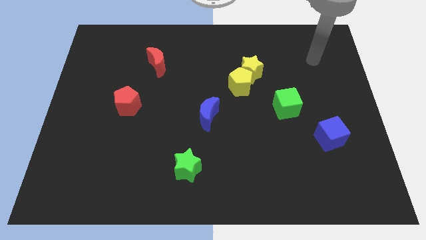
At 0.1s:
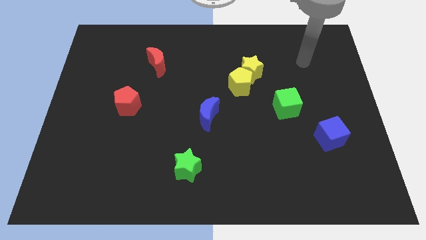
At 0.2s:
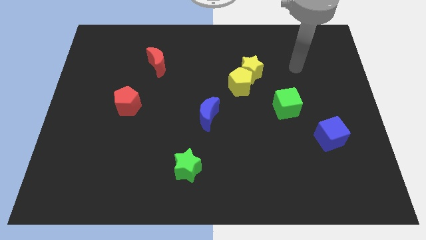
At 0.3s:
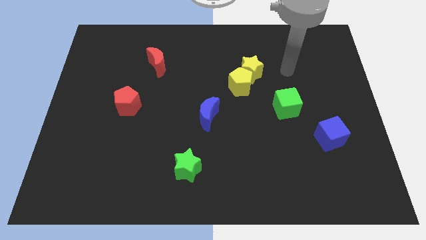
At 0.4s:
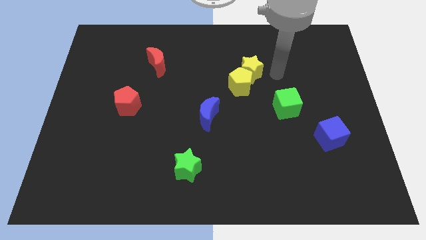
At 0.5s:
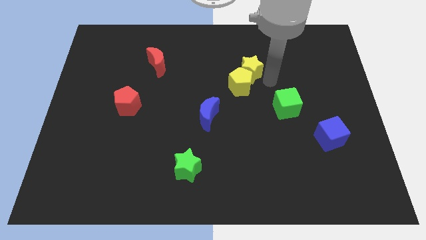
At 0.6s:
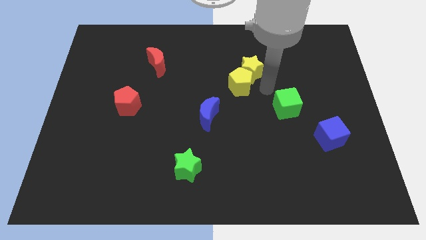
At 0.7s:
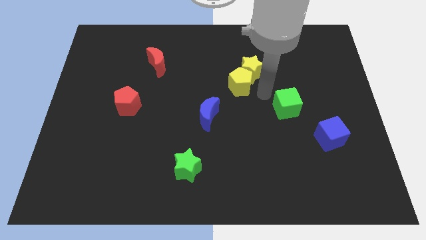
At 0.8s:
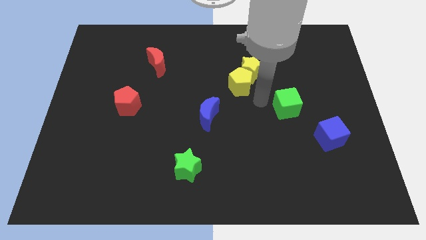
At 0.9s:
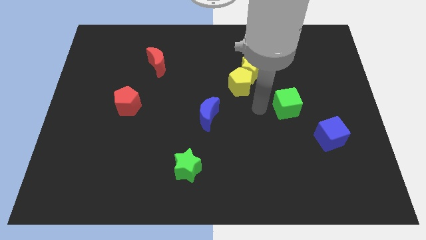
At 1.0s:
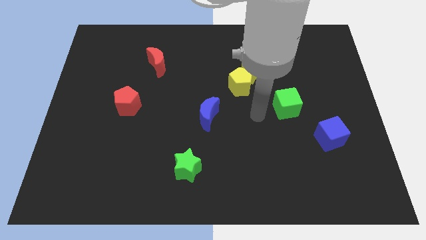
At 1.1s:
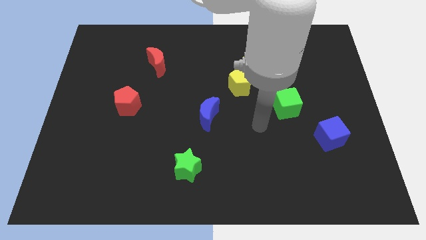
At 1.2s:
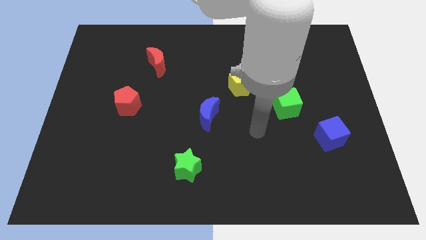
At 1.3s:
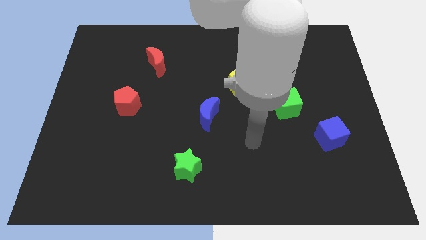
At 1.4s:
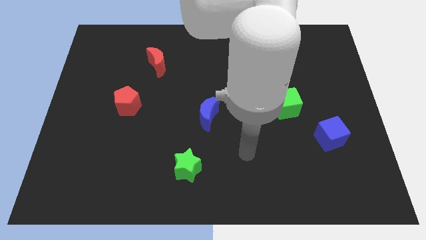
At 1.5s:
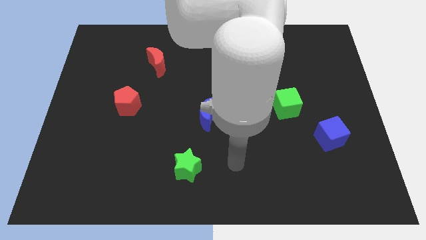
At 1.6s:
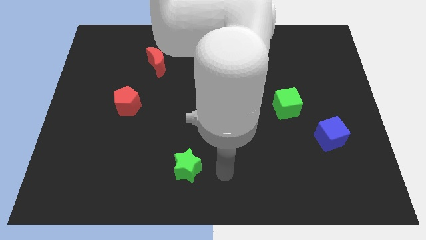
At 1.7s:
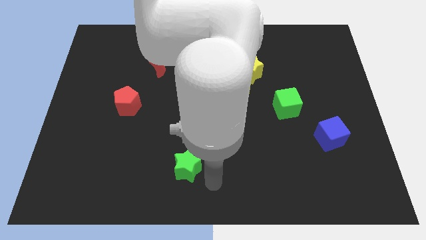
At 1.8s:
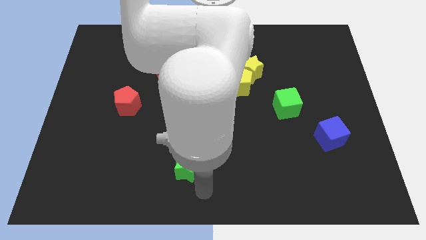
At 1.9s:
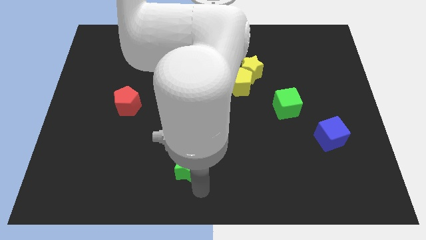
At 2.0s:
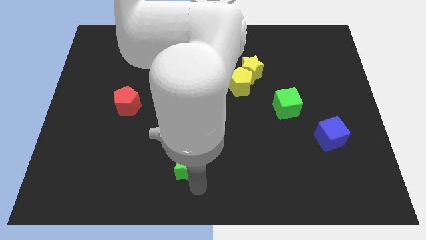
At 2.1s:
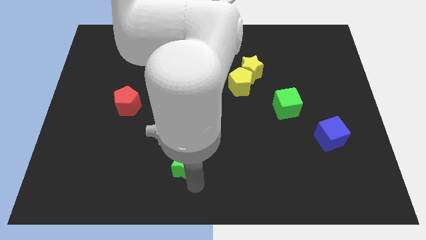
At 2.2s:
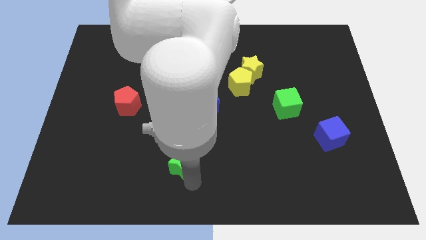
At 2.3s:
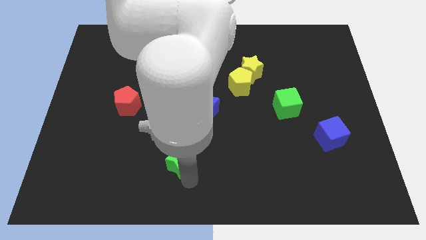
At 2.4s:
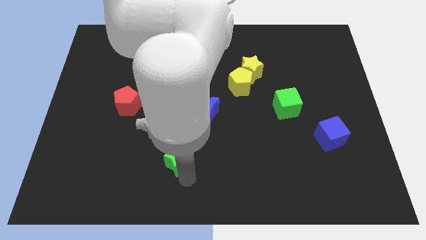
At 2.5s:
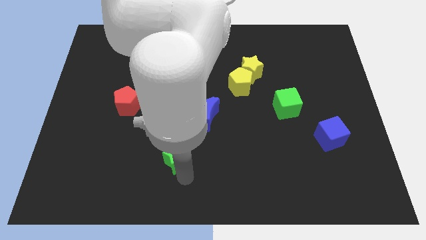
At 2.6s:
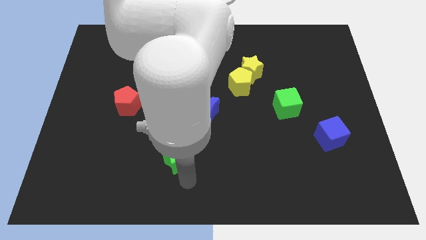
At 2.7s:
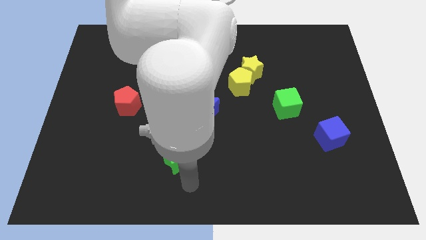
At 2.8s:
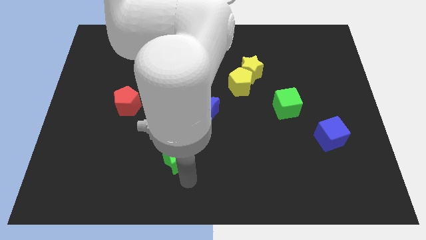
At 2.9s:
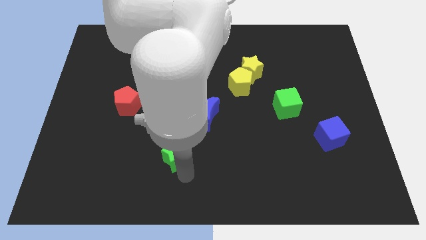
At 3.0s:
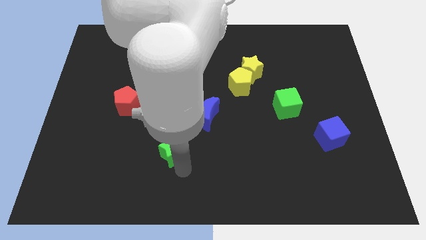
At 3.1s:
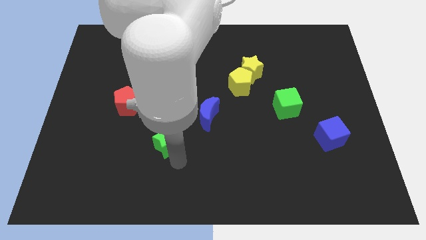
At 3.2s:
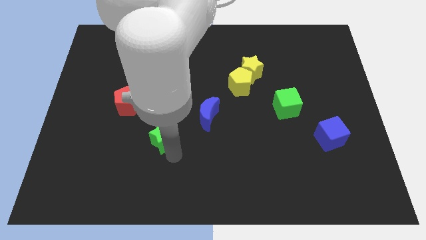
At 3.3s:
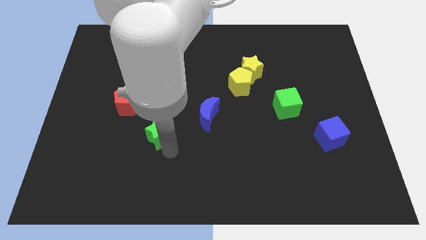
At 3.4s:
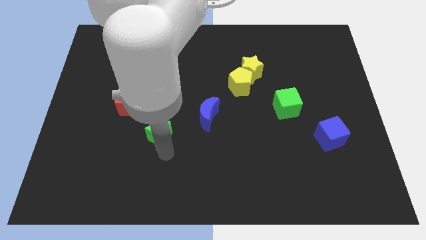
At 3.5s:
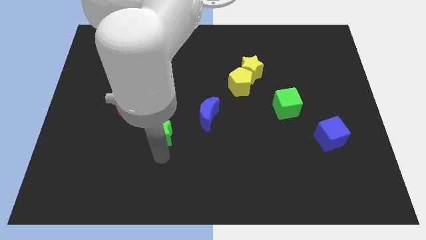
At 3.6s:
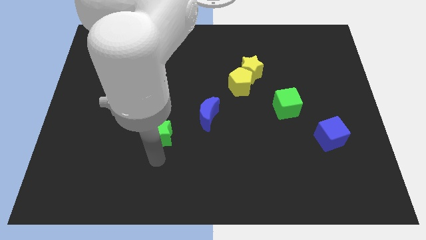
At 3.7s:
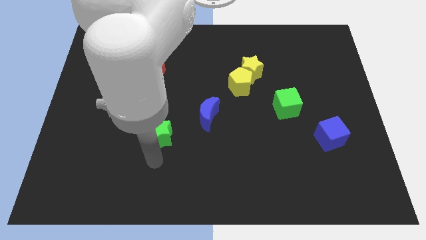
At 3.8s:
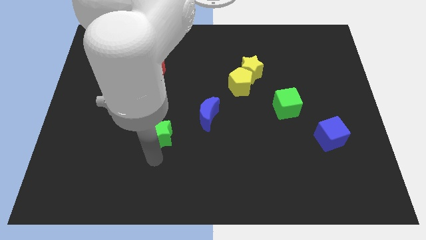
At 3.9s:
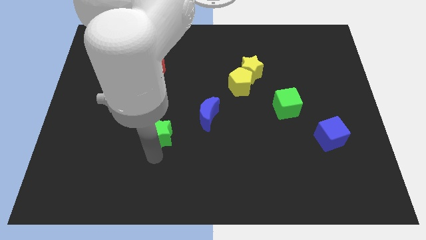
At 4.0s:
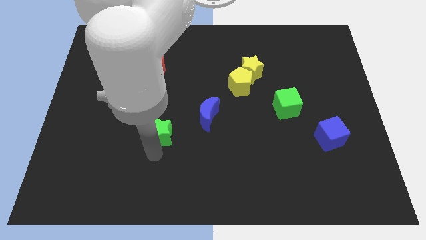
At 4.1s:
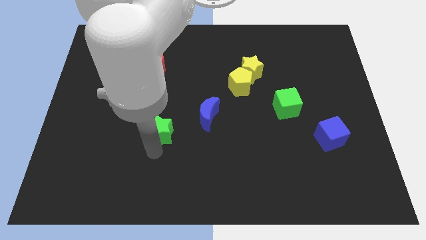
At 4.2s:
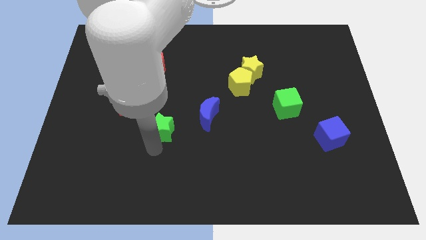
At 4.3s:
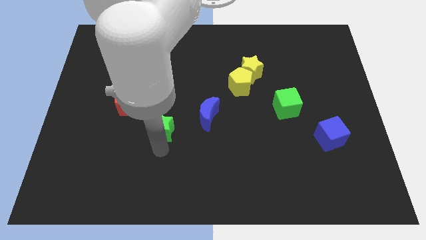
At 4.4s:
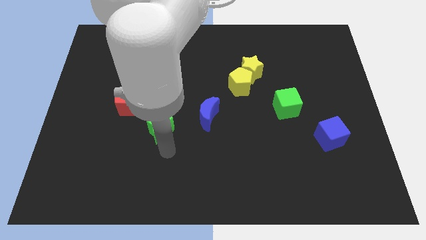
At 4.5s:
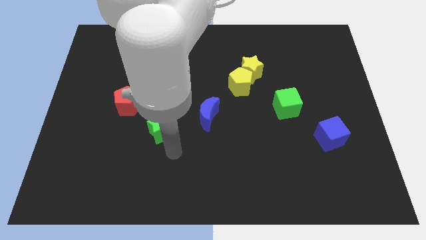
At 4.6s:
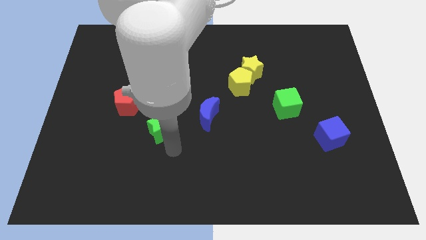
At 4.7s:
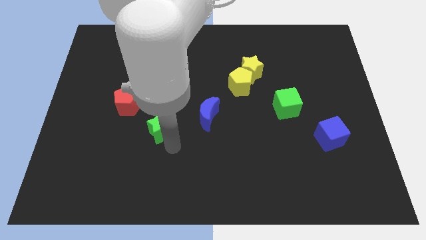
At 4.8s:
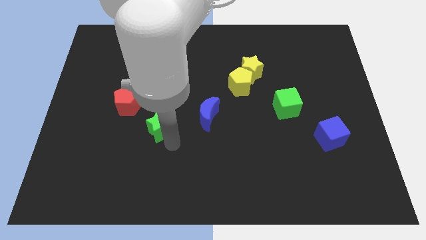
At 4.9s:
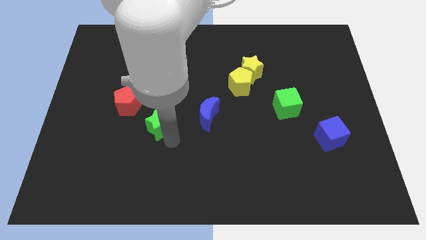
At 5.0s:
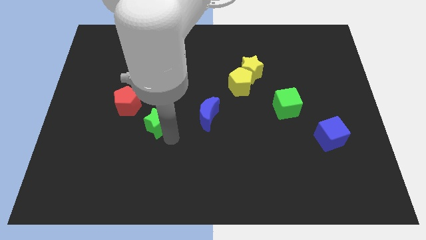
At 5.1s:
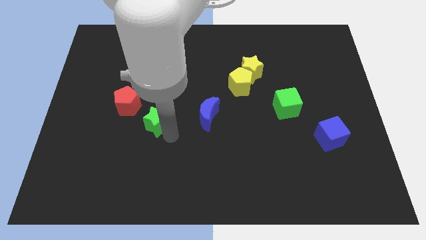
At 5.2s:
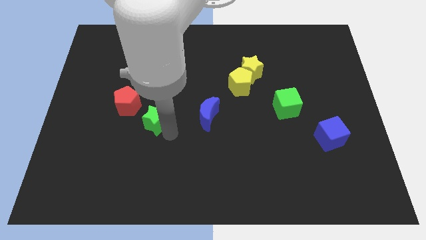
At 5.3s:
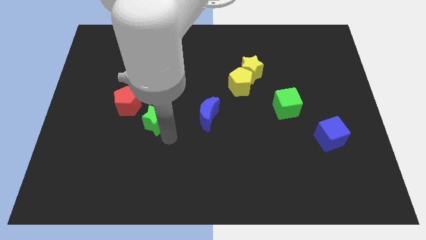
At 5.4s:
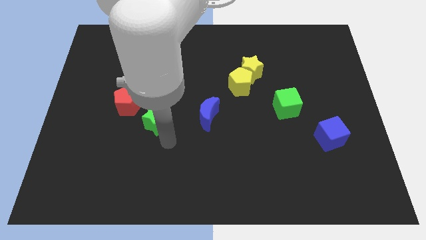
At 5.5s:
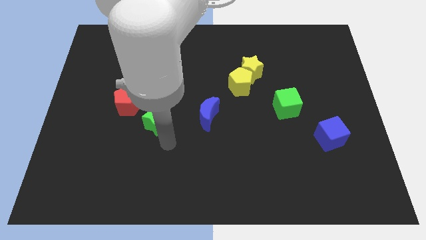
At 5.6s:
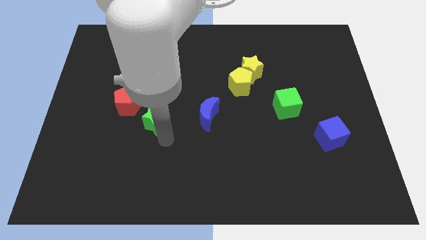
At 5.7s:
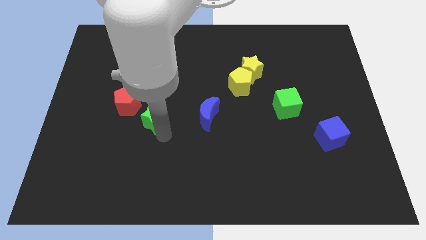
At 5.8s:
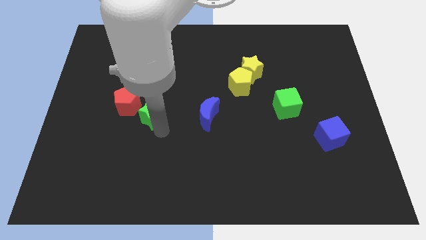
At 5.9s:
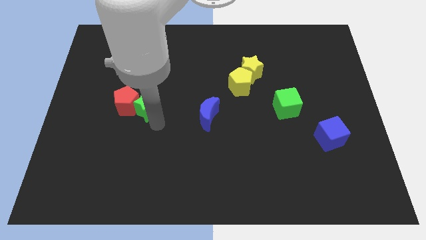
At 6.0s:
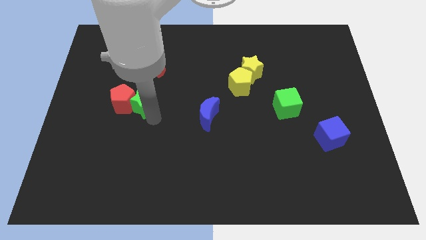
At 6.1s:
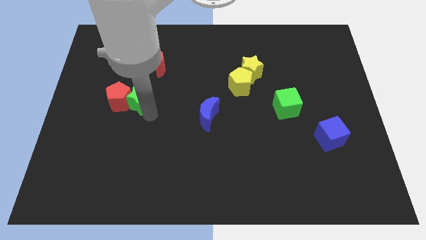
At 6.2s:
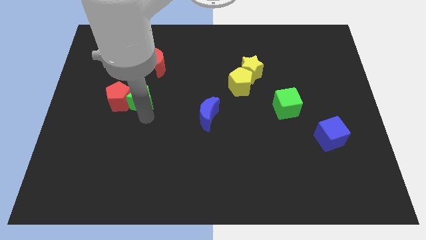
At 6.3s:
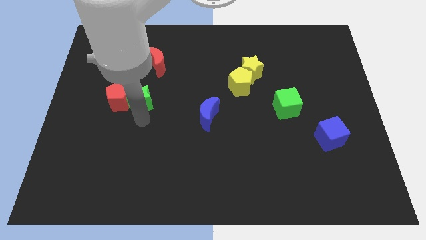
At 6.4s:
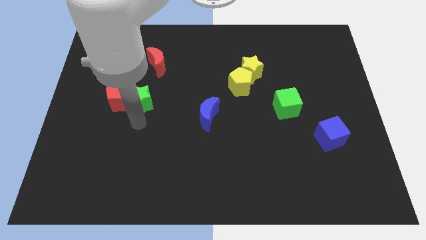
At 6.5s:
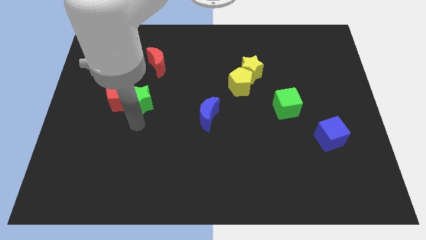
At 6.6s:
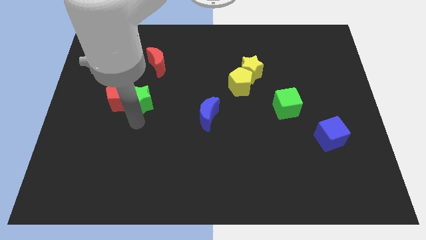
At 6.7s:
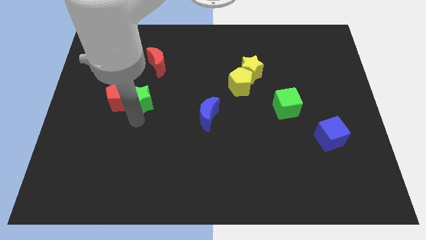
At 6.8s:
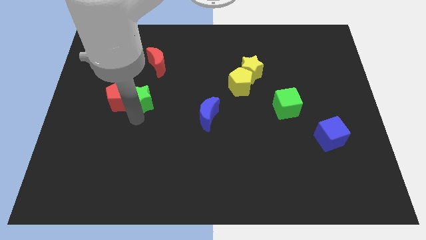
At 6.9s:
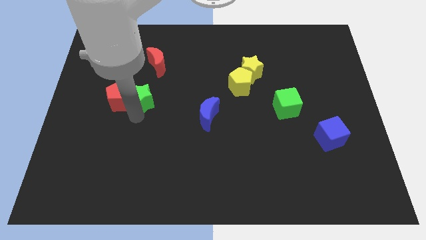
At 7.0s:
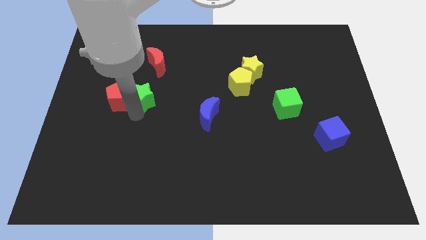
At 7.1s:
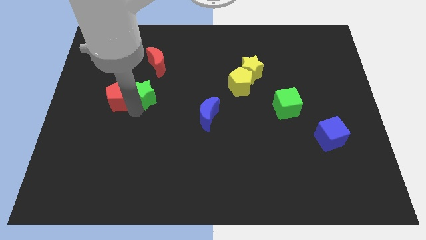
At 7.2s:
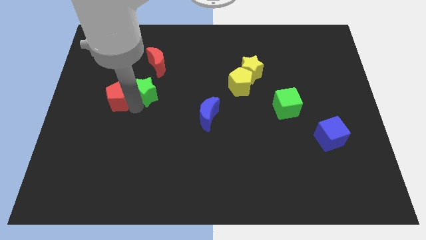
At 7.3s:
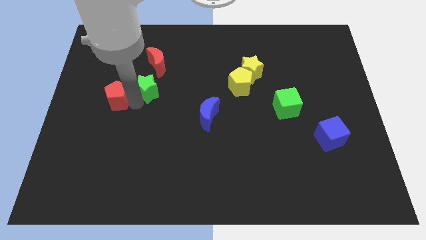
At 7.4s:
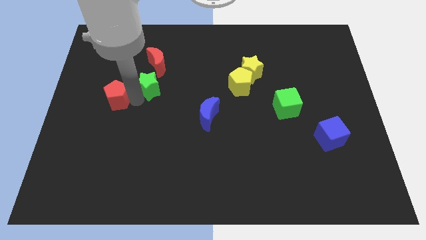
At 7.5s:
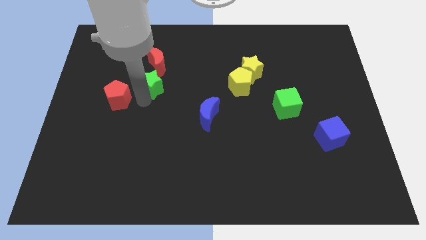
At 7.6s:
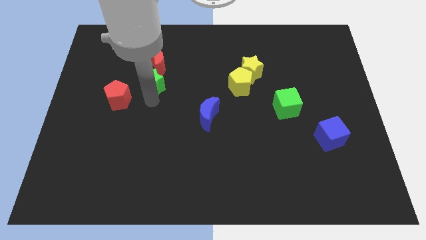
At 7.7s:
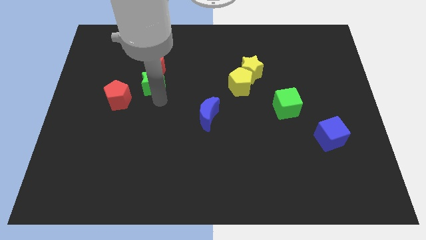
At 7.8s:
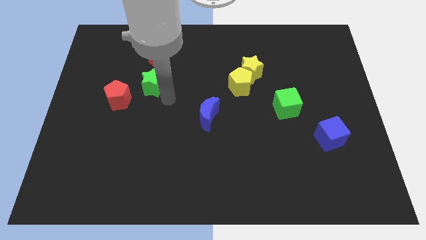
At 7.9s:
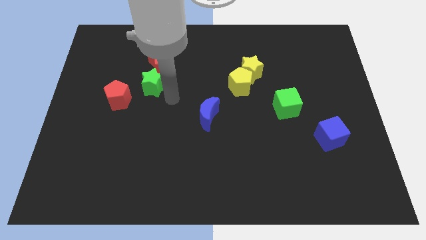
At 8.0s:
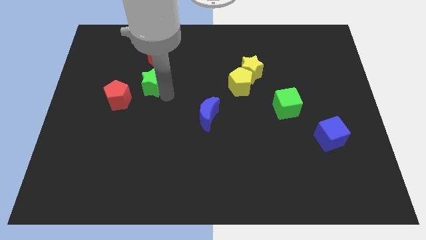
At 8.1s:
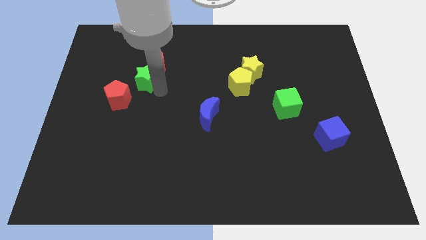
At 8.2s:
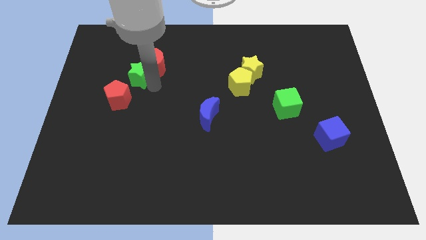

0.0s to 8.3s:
push the green star to the top side of the red pentagon
